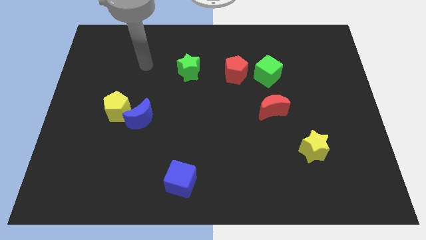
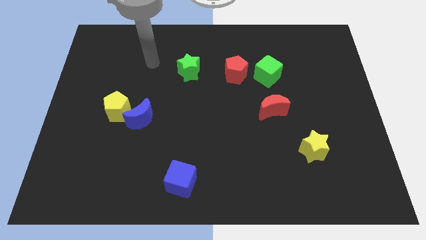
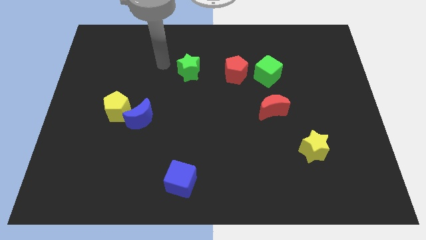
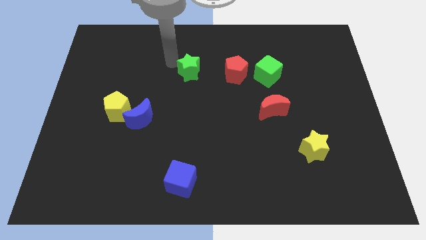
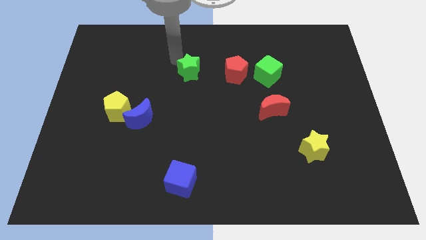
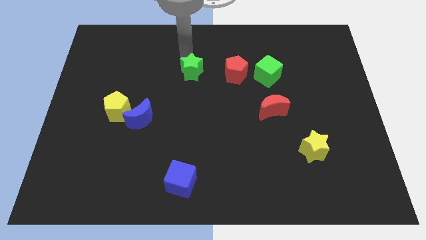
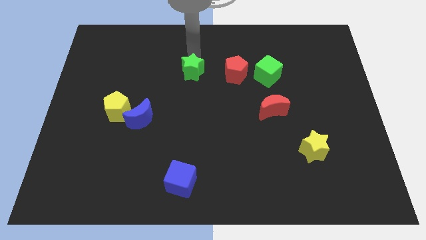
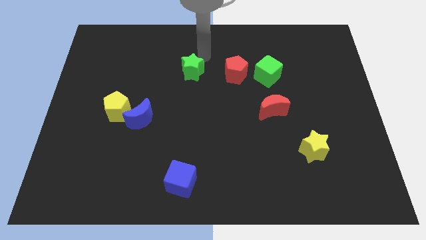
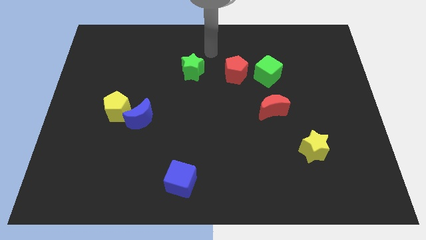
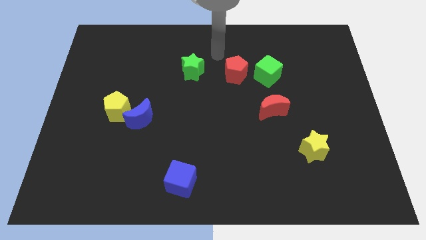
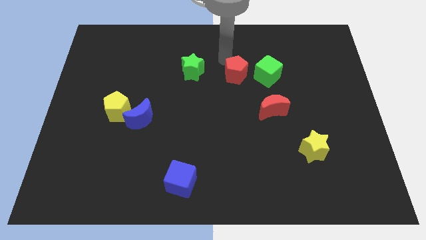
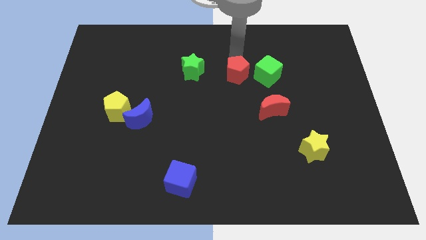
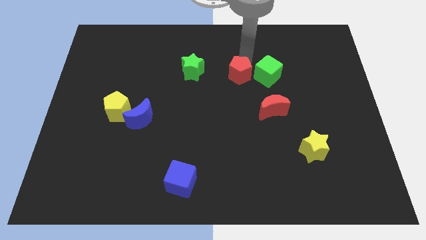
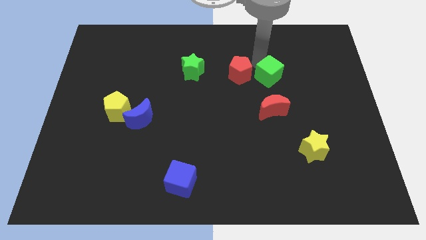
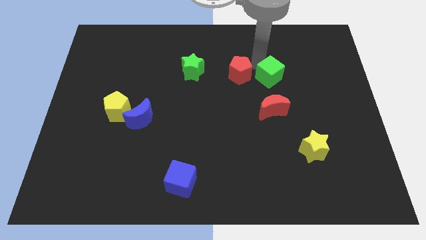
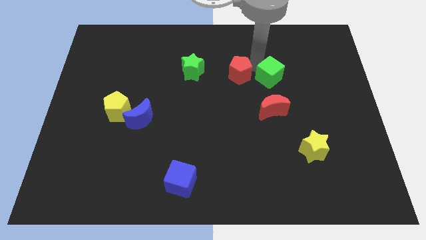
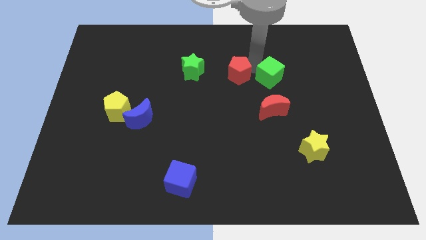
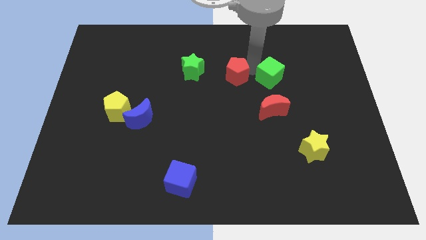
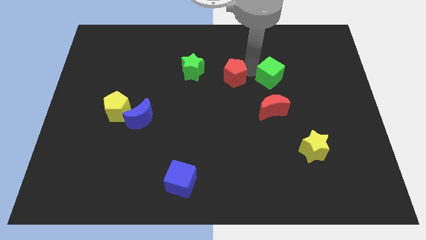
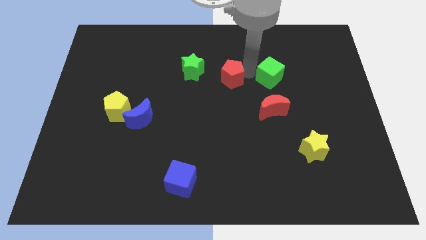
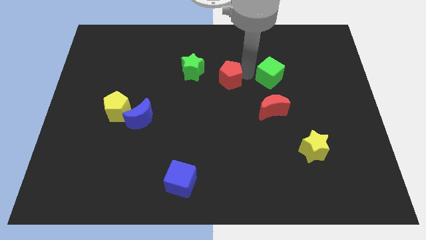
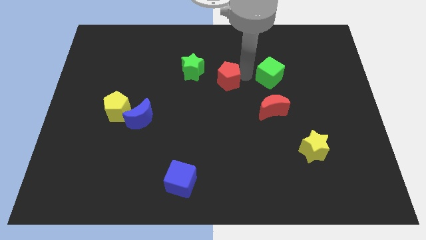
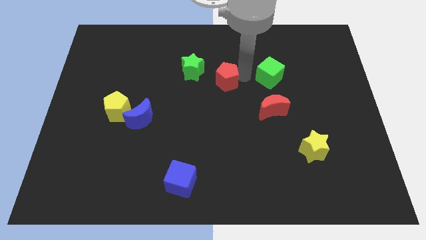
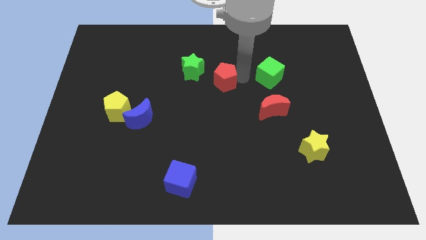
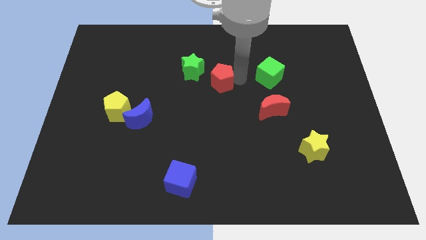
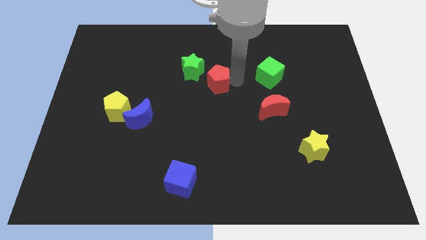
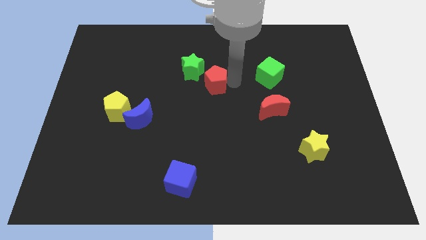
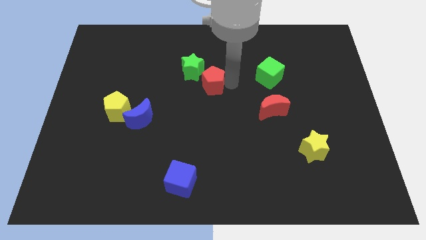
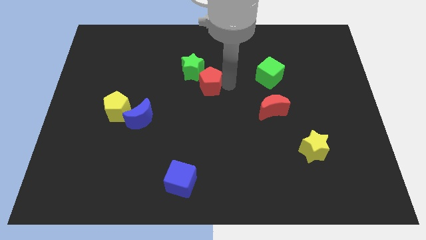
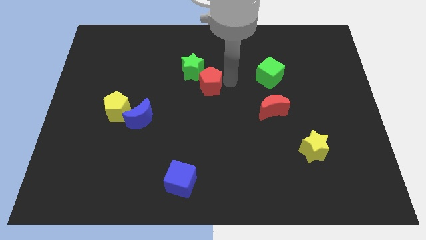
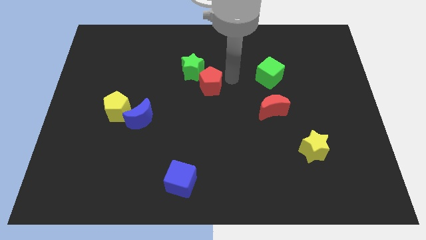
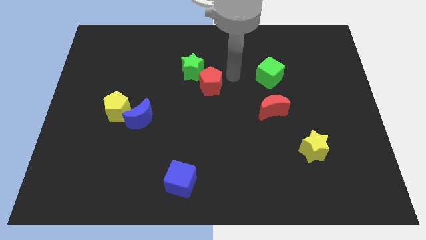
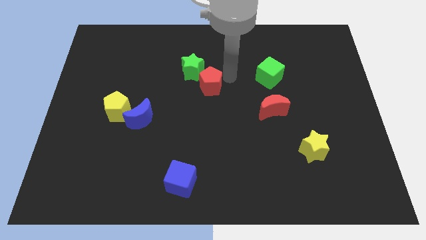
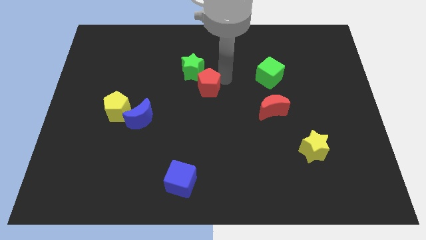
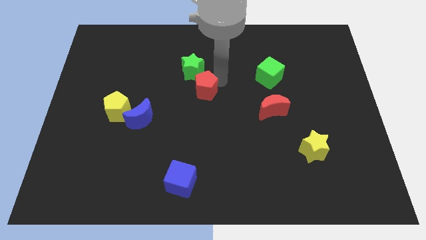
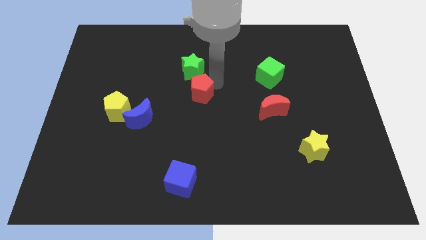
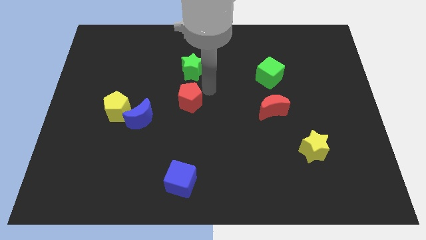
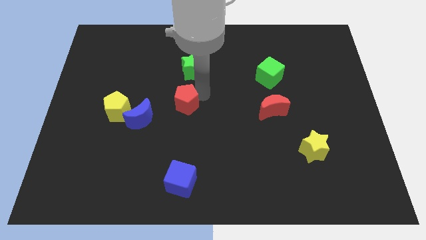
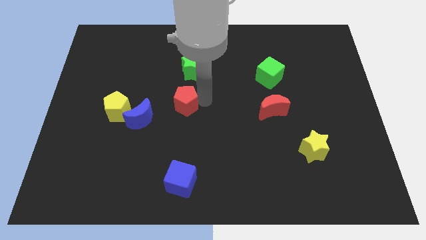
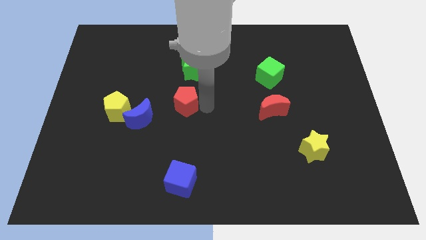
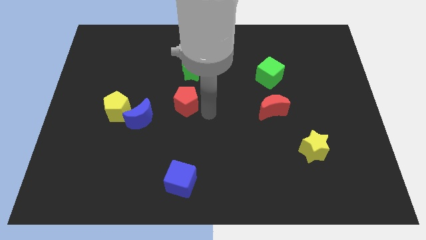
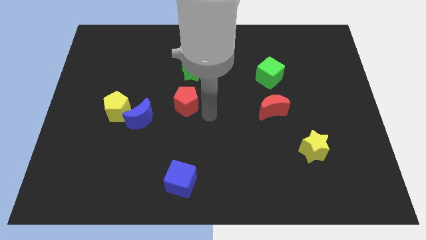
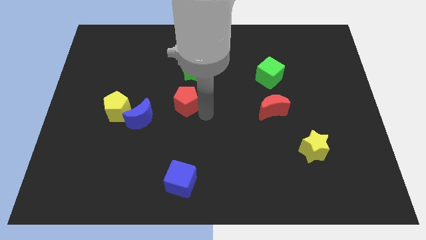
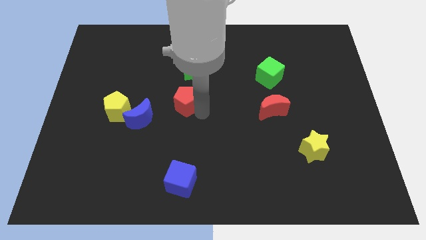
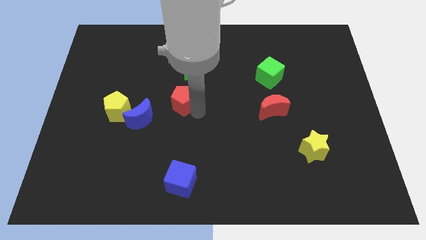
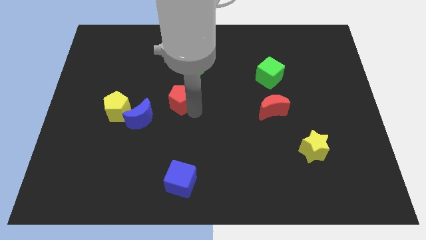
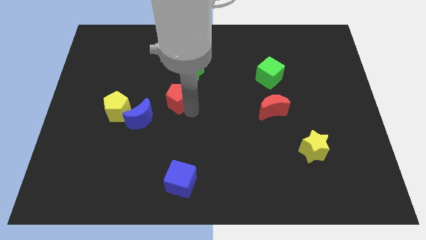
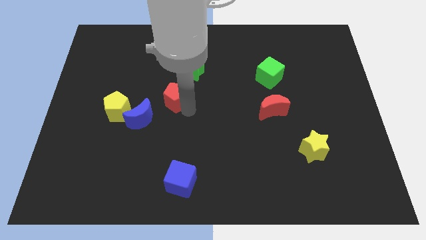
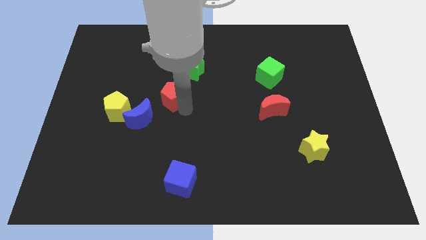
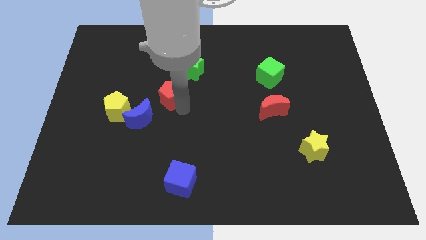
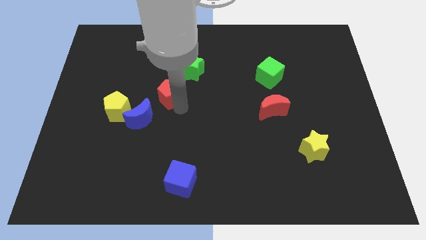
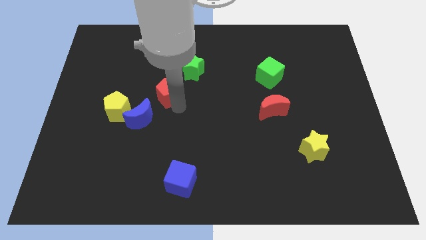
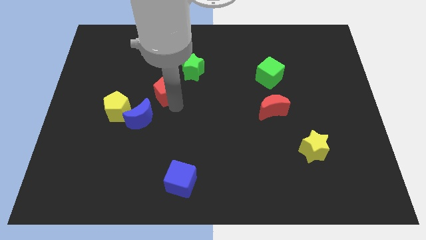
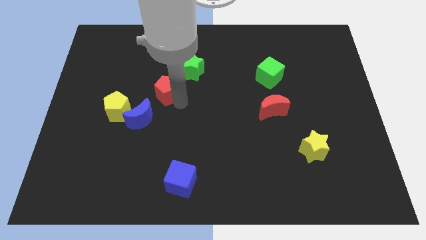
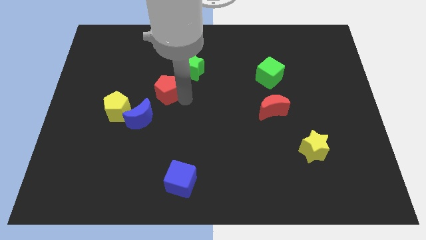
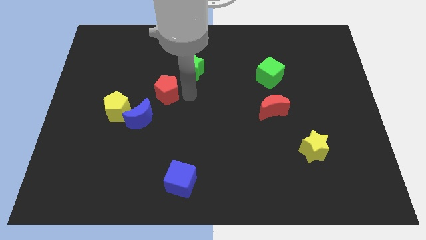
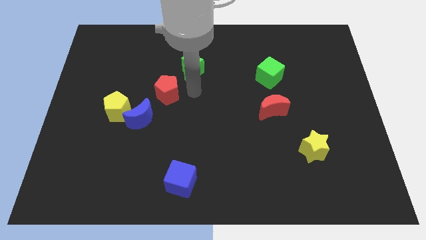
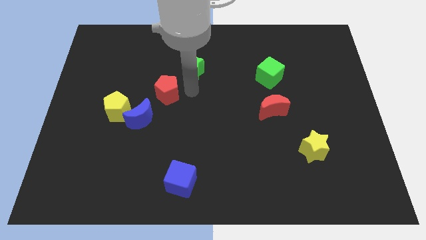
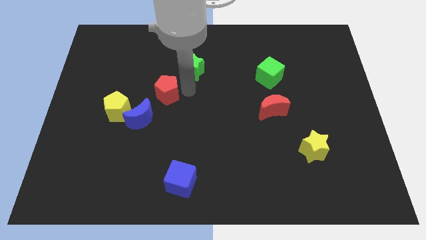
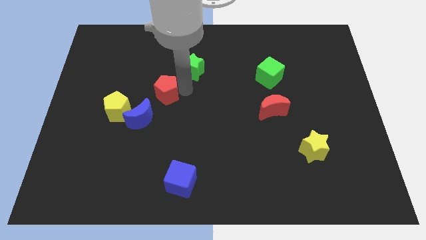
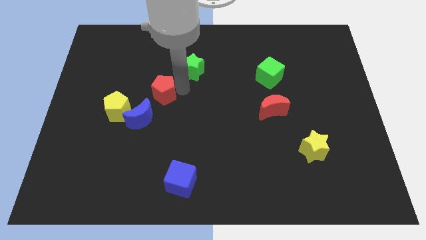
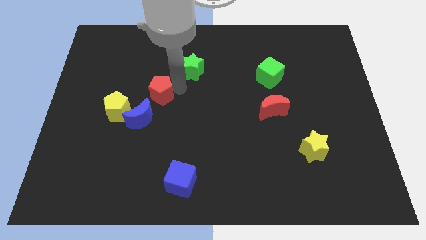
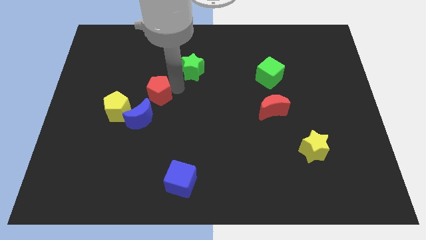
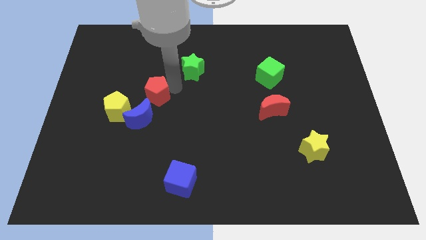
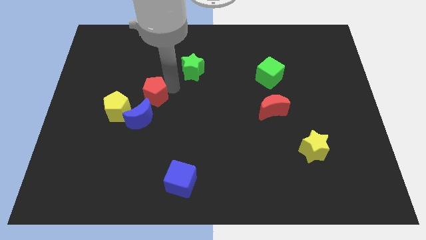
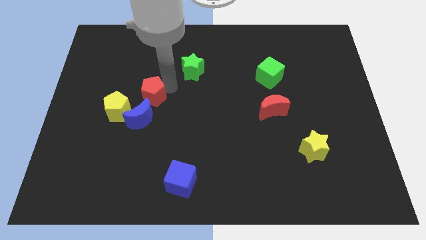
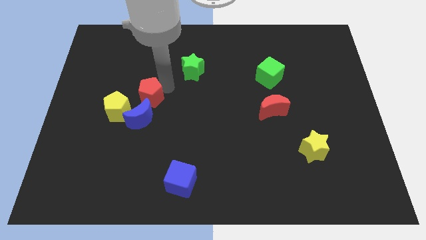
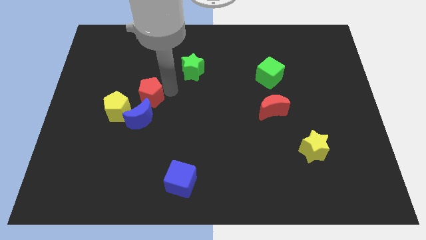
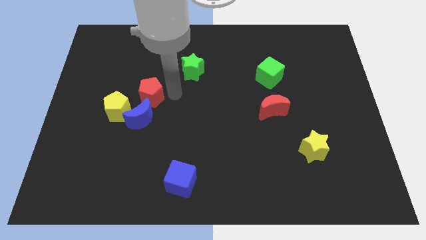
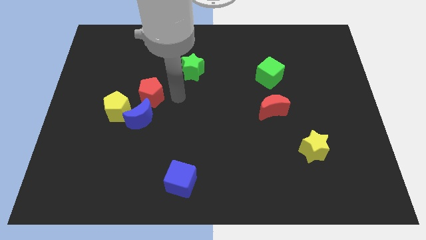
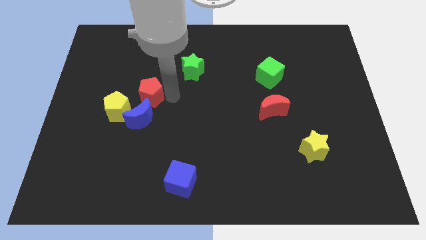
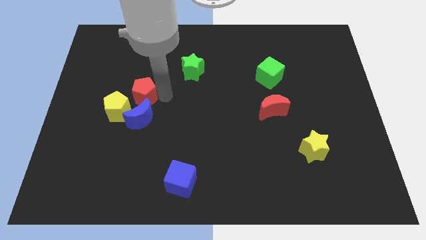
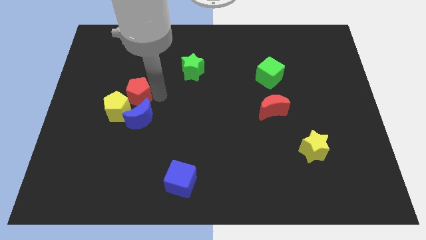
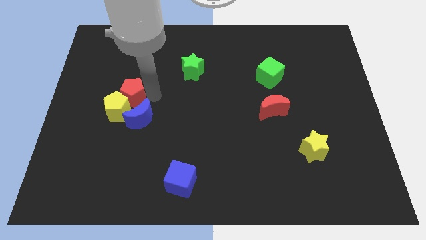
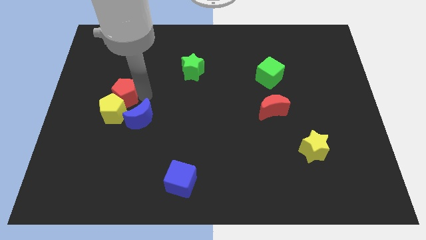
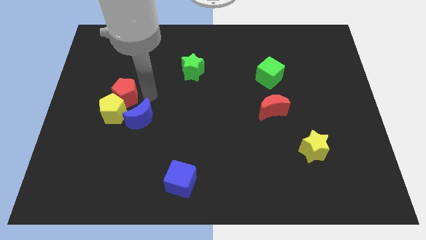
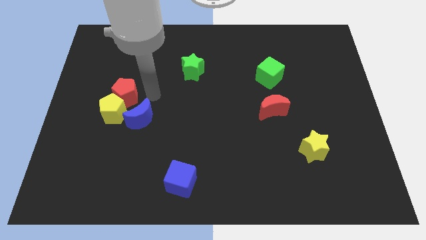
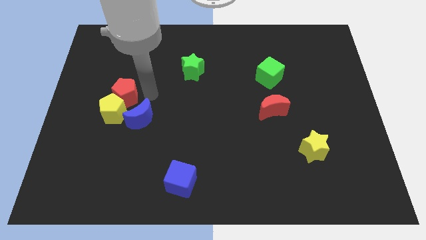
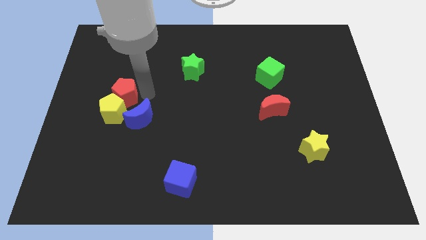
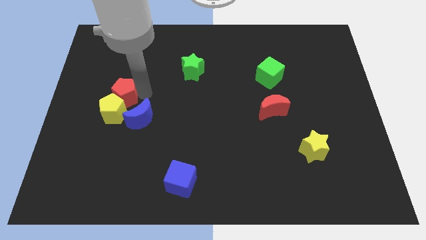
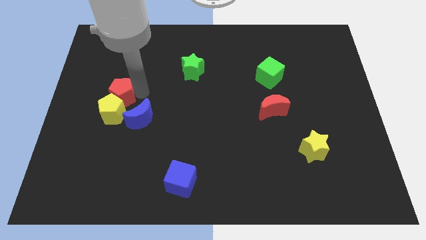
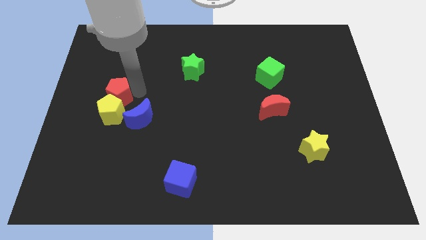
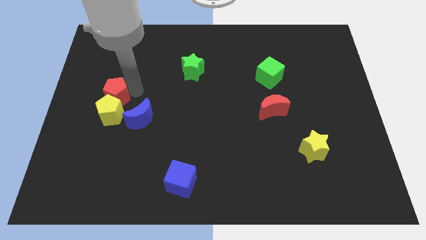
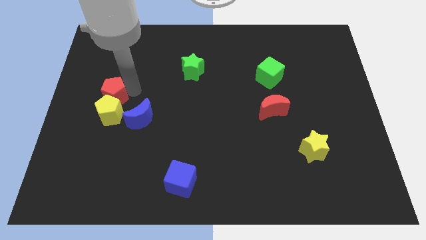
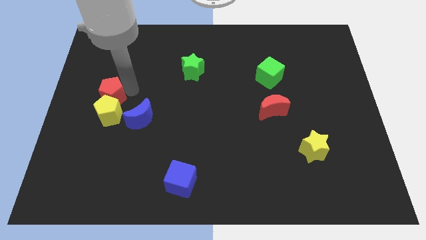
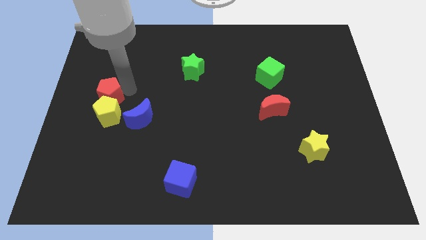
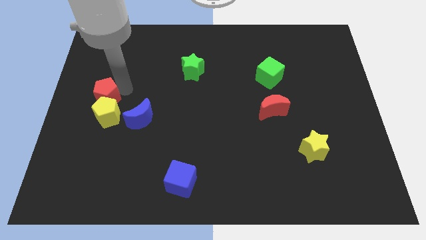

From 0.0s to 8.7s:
slide the red pentagon to the center left
